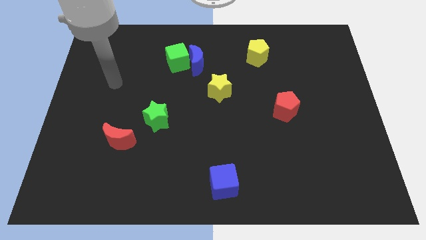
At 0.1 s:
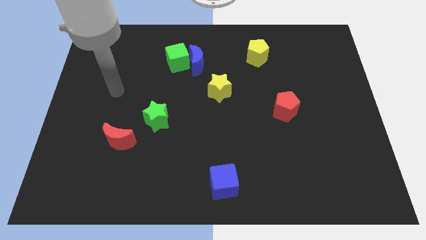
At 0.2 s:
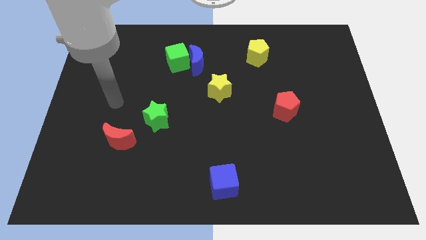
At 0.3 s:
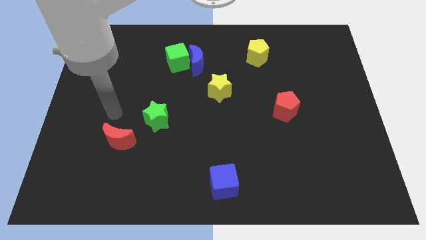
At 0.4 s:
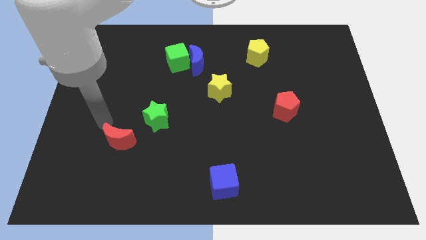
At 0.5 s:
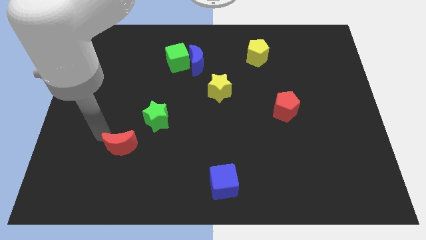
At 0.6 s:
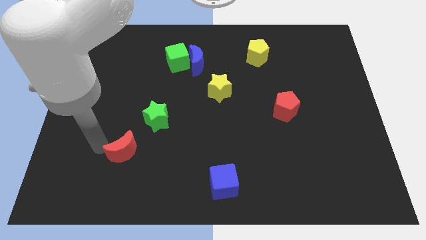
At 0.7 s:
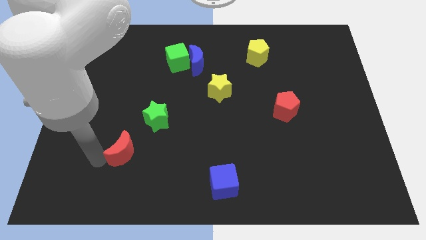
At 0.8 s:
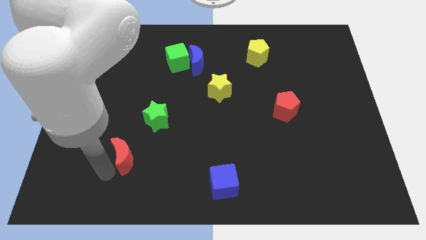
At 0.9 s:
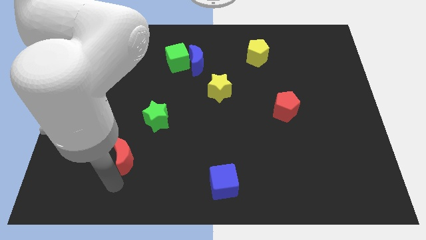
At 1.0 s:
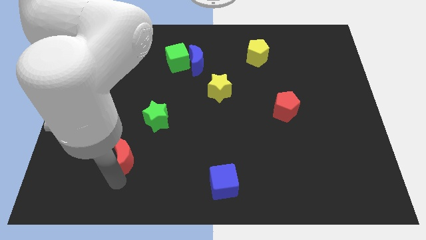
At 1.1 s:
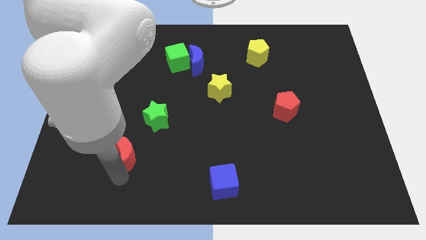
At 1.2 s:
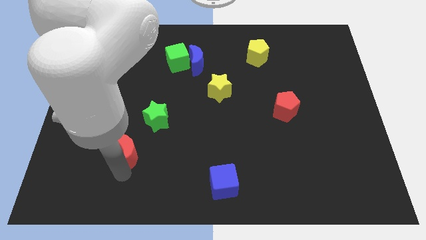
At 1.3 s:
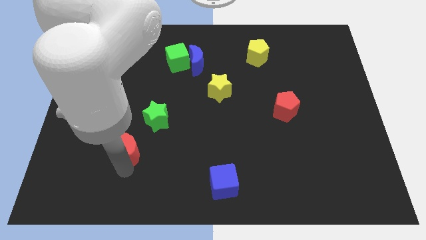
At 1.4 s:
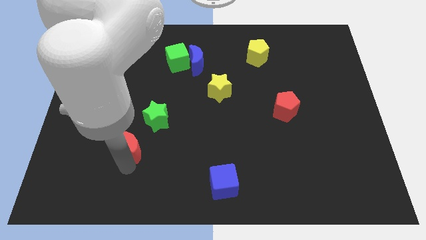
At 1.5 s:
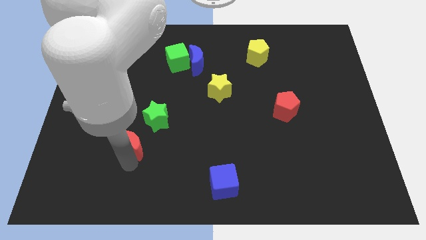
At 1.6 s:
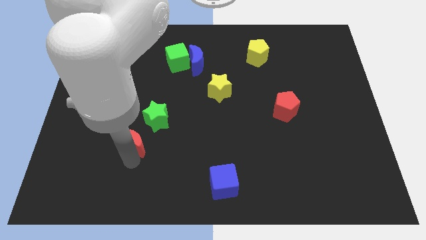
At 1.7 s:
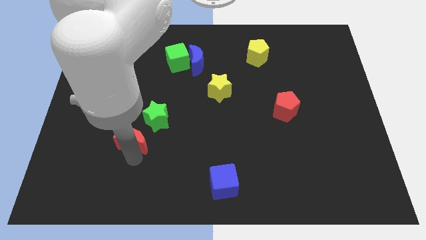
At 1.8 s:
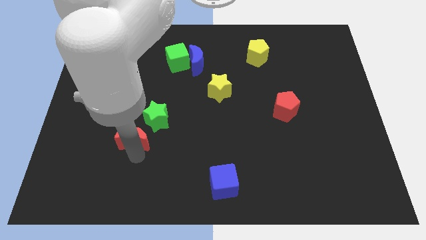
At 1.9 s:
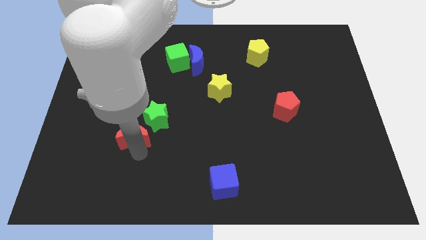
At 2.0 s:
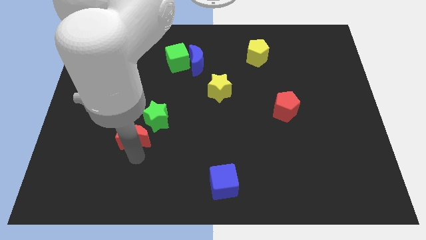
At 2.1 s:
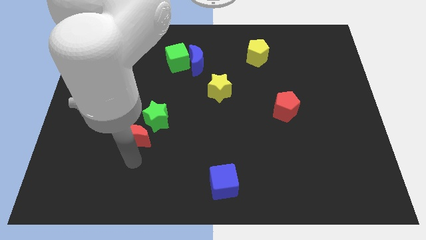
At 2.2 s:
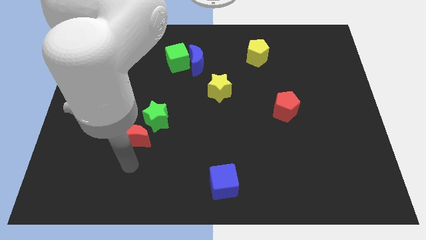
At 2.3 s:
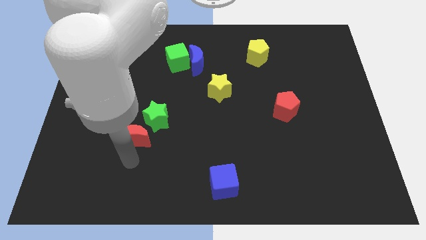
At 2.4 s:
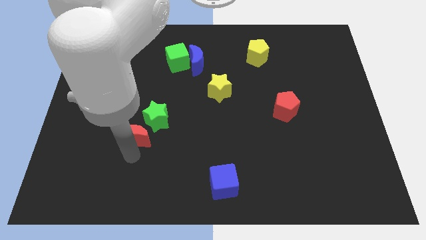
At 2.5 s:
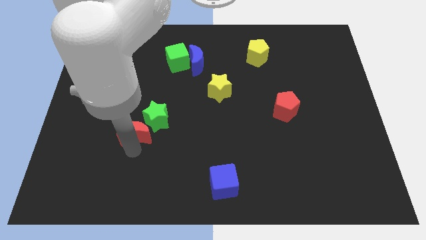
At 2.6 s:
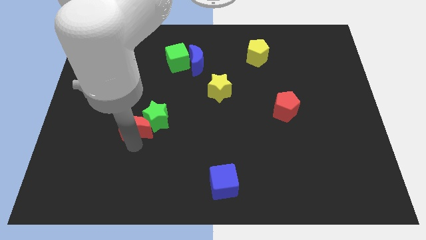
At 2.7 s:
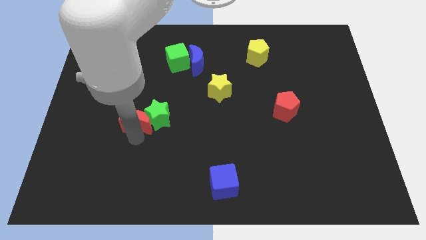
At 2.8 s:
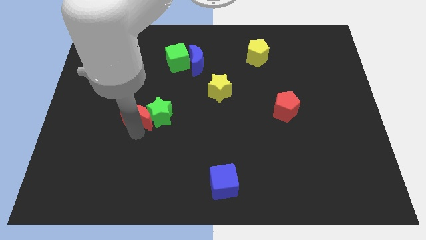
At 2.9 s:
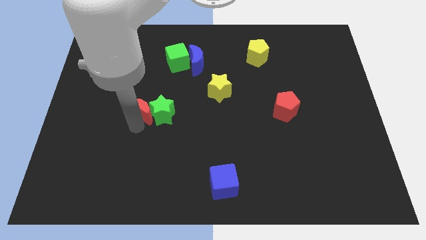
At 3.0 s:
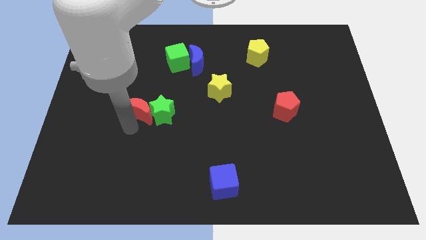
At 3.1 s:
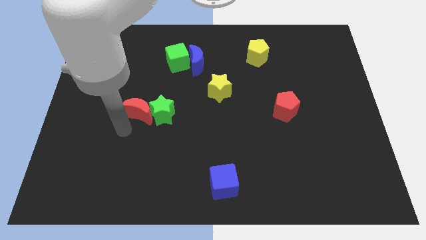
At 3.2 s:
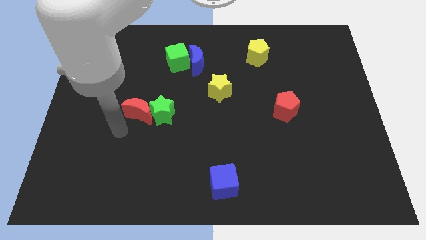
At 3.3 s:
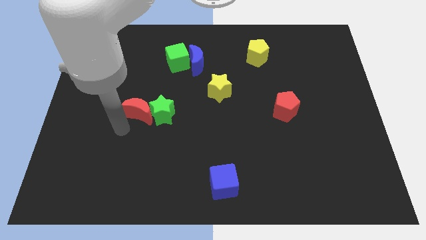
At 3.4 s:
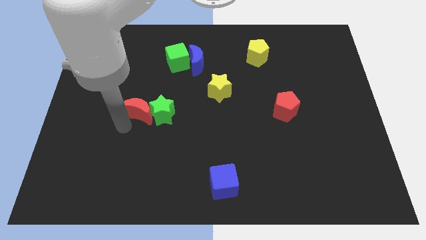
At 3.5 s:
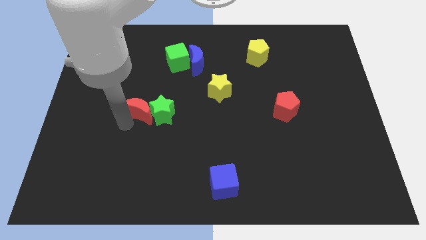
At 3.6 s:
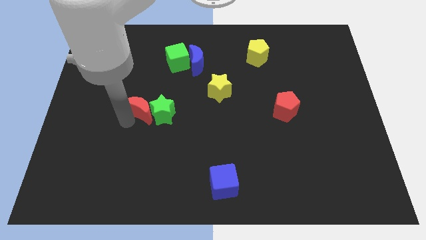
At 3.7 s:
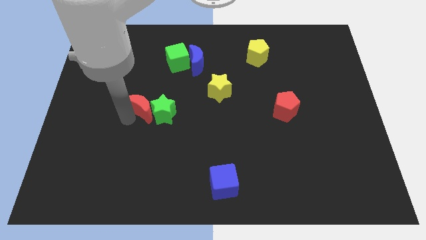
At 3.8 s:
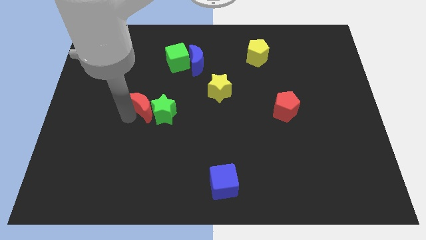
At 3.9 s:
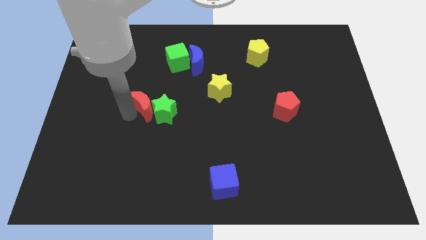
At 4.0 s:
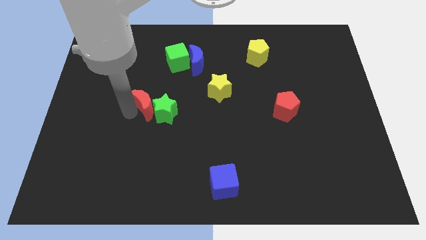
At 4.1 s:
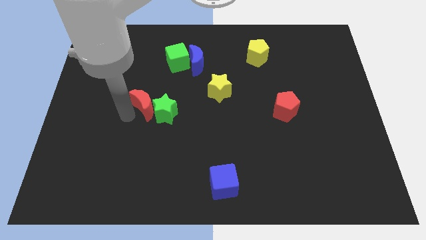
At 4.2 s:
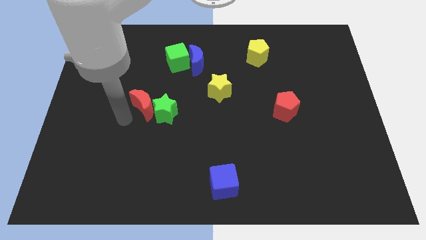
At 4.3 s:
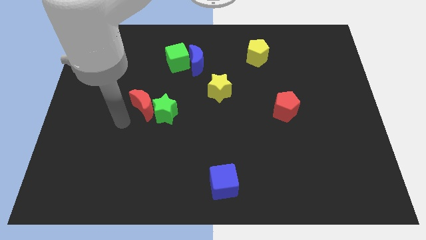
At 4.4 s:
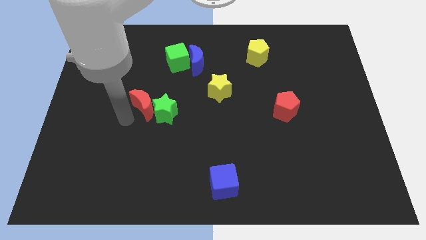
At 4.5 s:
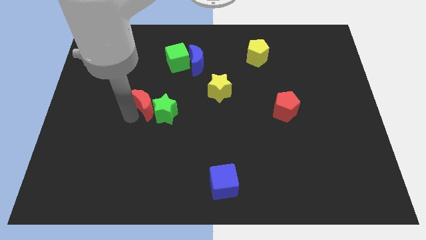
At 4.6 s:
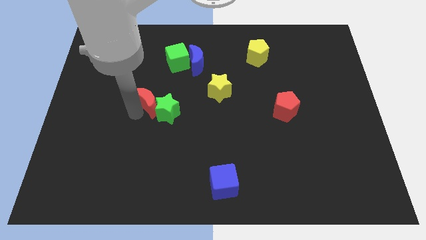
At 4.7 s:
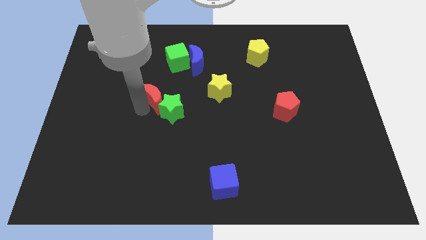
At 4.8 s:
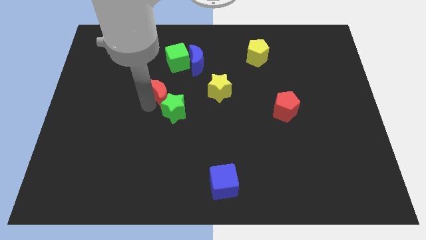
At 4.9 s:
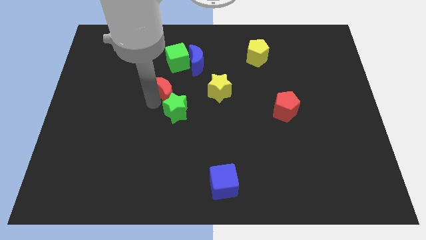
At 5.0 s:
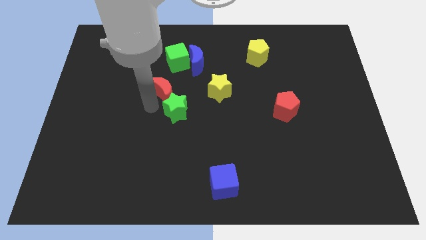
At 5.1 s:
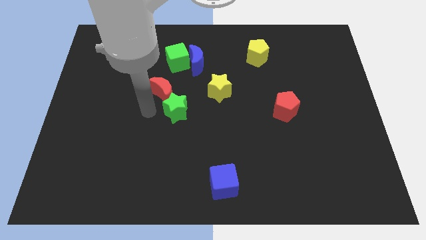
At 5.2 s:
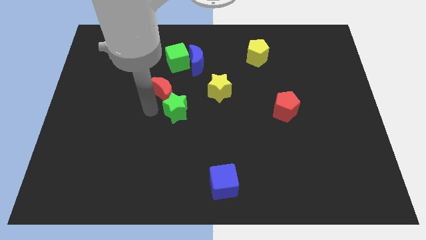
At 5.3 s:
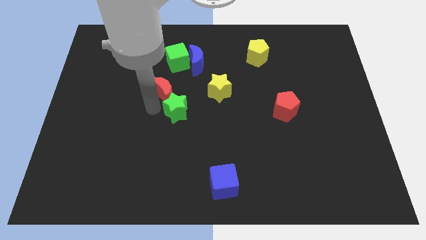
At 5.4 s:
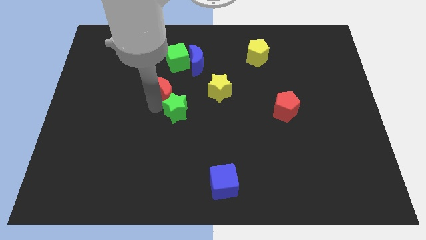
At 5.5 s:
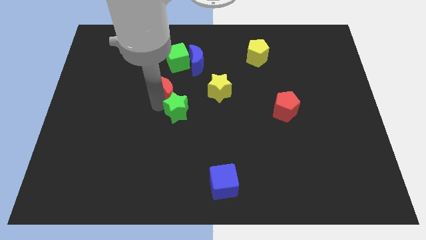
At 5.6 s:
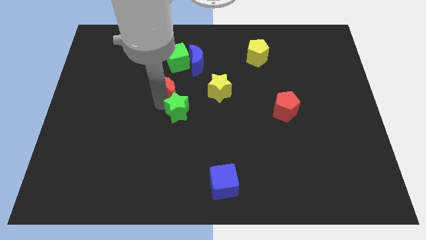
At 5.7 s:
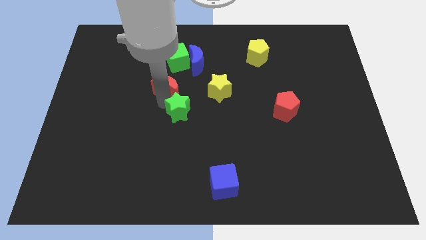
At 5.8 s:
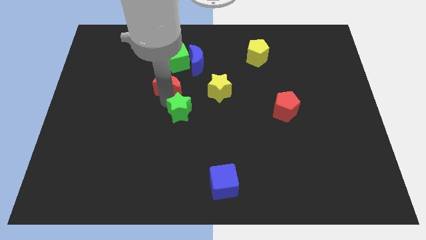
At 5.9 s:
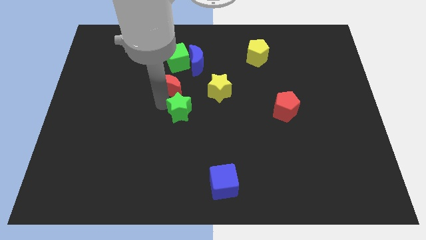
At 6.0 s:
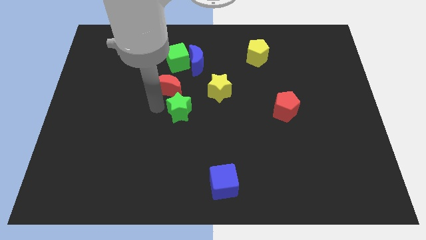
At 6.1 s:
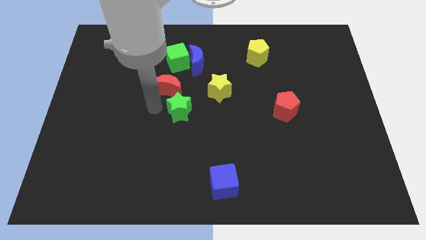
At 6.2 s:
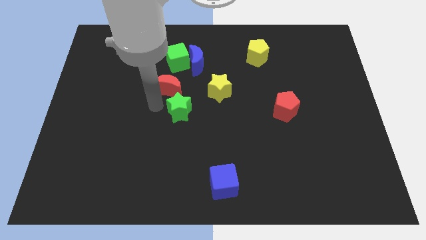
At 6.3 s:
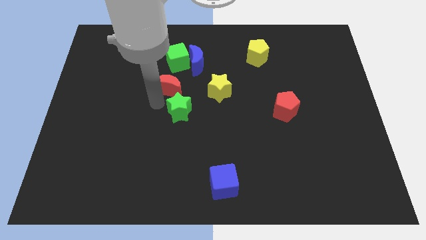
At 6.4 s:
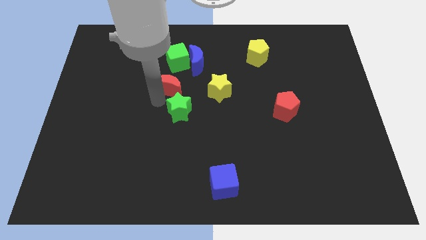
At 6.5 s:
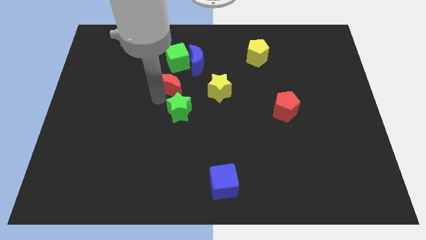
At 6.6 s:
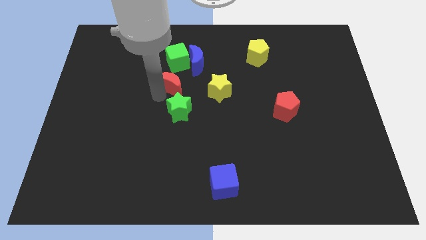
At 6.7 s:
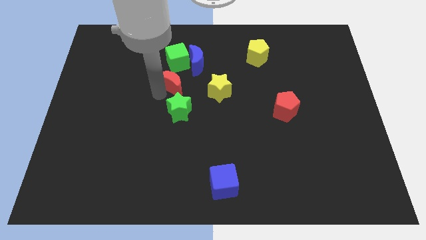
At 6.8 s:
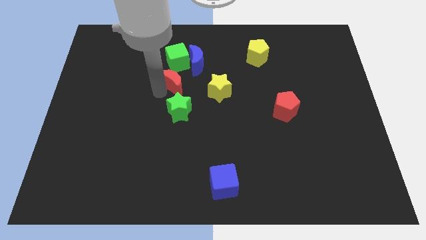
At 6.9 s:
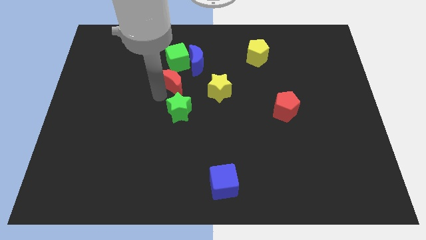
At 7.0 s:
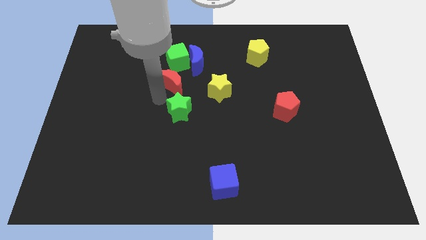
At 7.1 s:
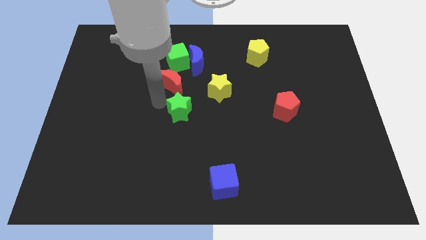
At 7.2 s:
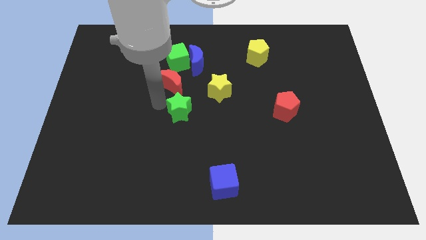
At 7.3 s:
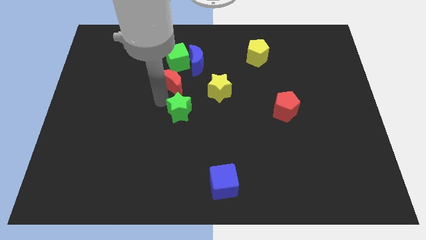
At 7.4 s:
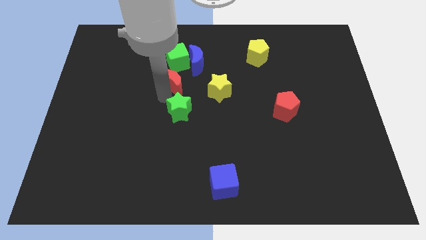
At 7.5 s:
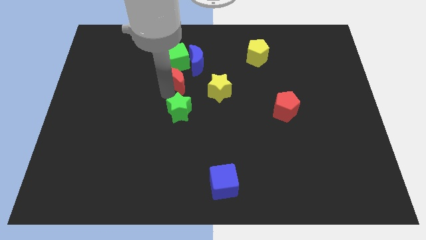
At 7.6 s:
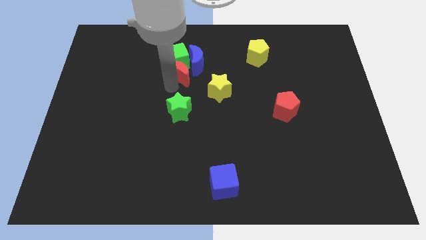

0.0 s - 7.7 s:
put the red moon to the blue moon
